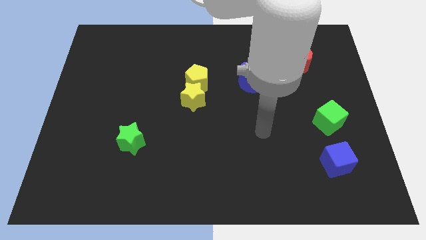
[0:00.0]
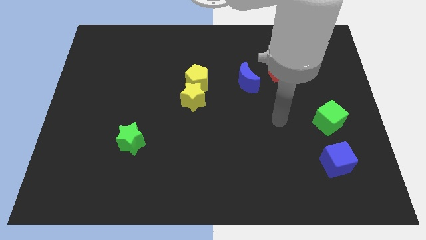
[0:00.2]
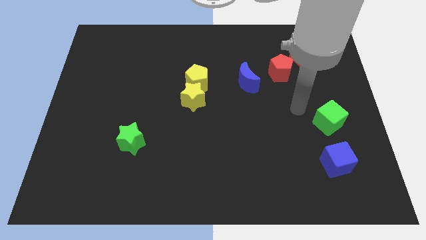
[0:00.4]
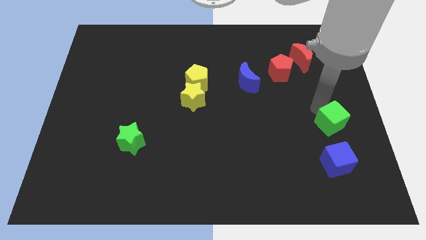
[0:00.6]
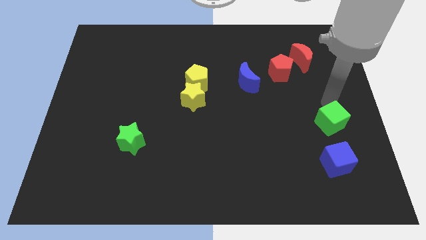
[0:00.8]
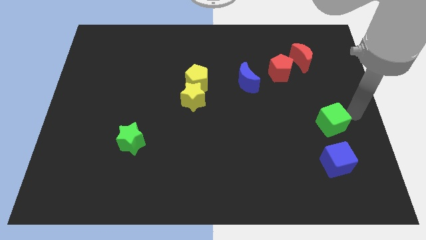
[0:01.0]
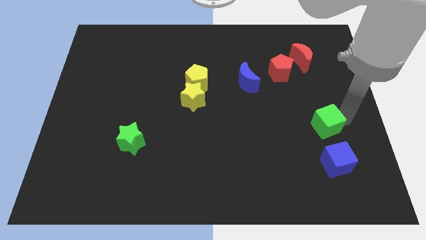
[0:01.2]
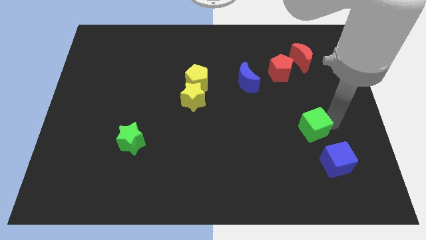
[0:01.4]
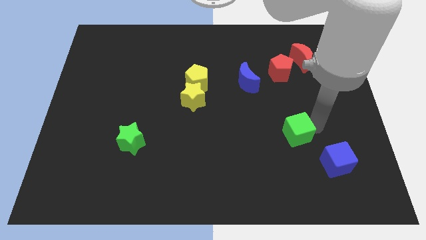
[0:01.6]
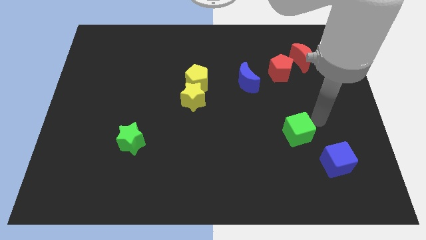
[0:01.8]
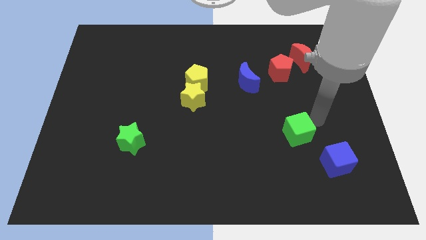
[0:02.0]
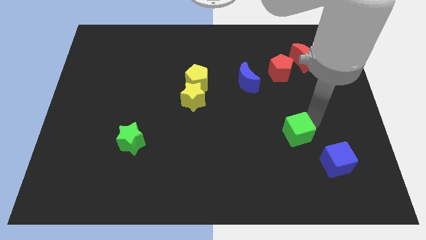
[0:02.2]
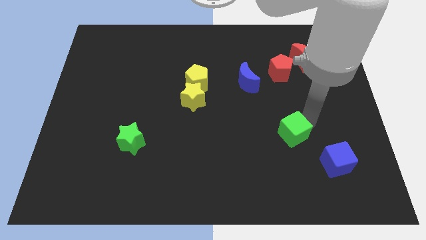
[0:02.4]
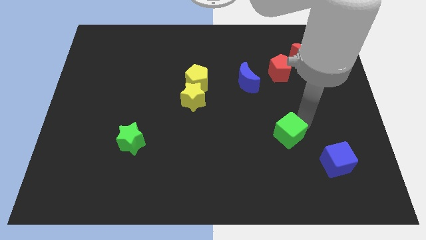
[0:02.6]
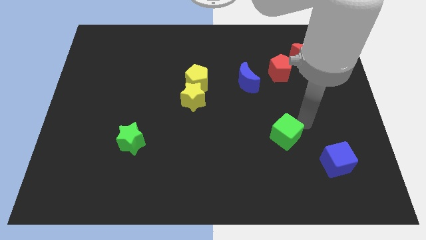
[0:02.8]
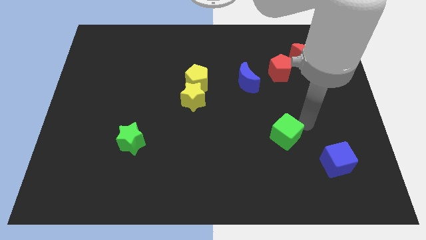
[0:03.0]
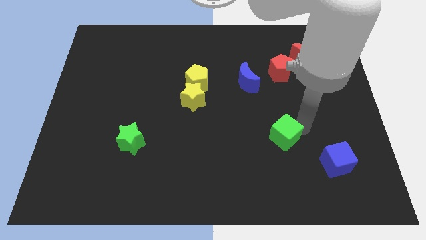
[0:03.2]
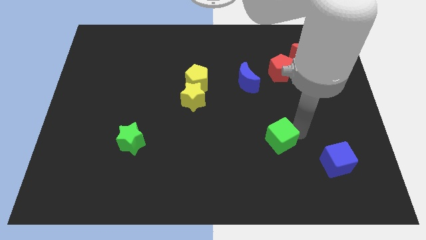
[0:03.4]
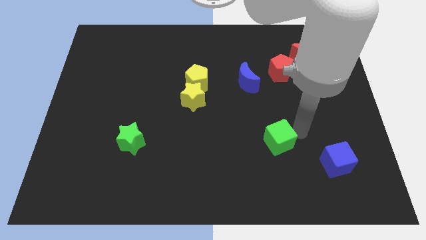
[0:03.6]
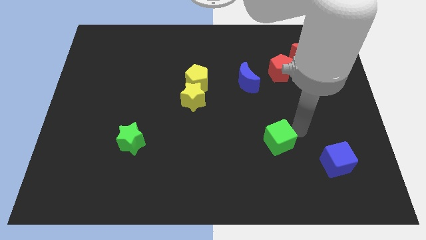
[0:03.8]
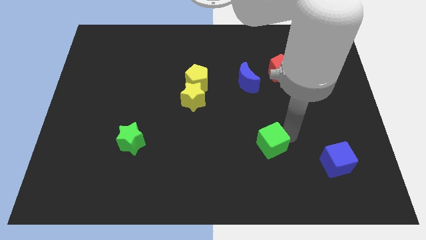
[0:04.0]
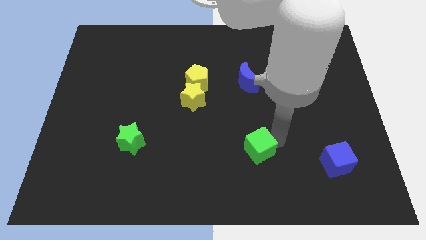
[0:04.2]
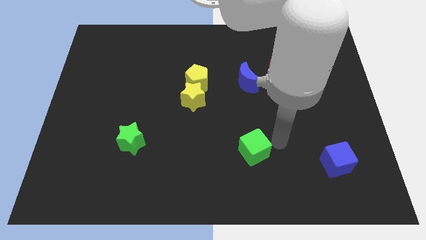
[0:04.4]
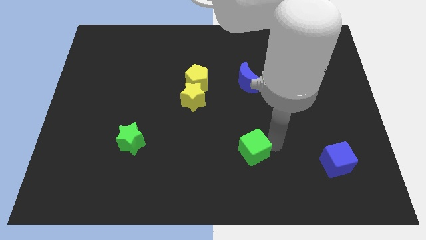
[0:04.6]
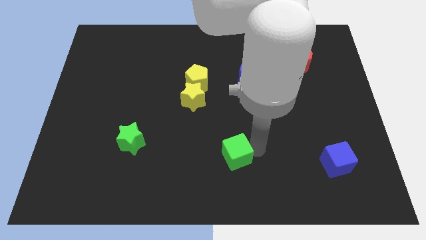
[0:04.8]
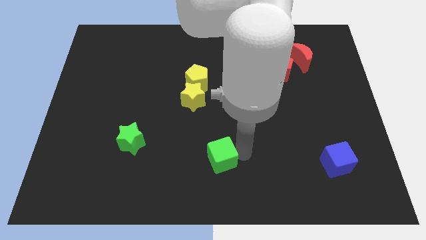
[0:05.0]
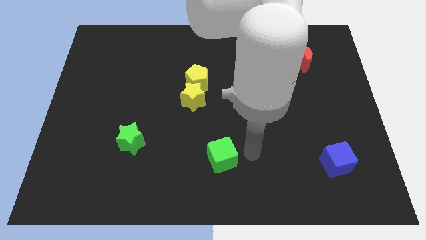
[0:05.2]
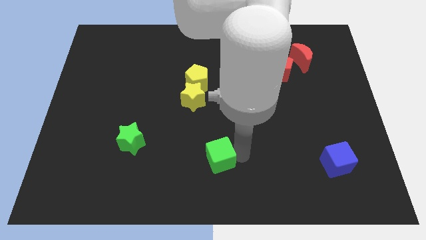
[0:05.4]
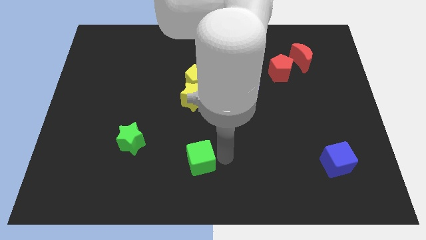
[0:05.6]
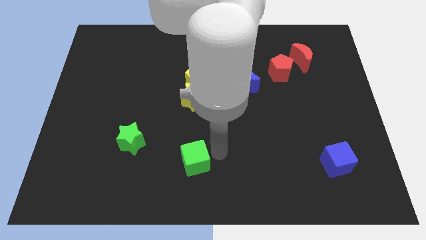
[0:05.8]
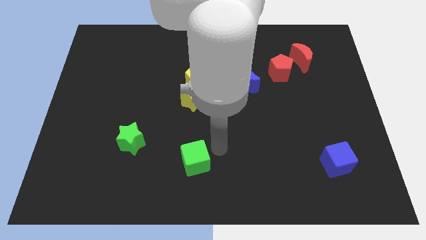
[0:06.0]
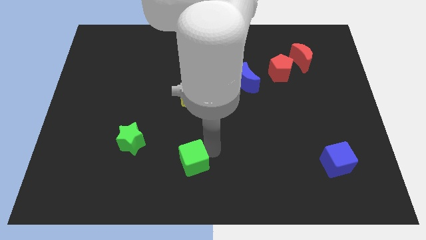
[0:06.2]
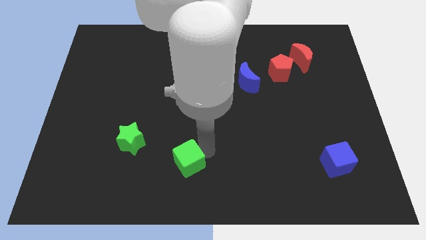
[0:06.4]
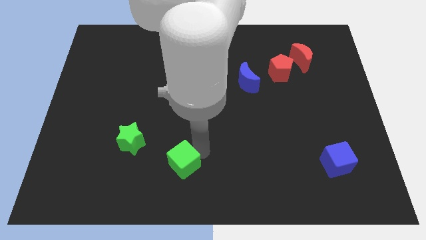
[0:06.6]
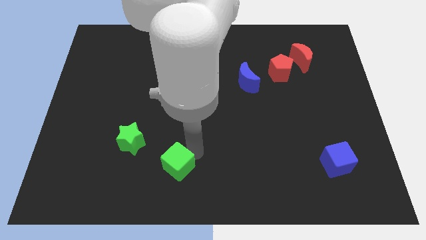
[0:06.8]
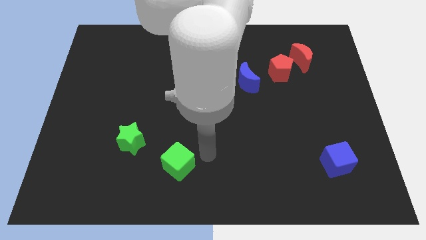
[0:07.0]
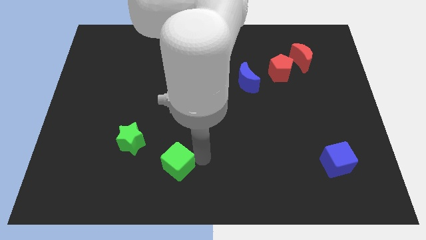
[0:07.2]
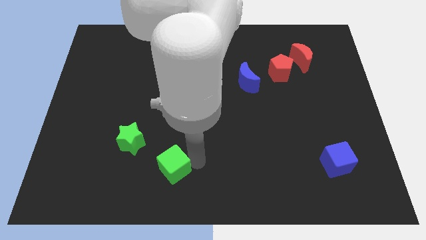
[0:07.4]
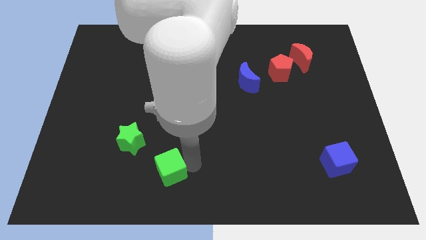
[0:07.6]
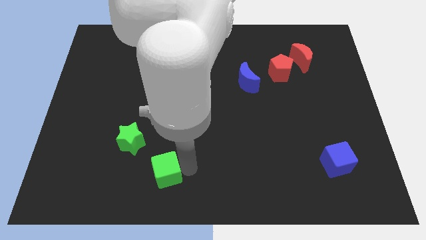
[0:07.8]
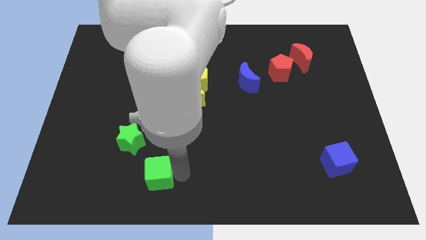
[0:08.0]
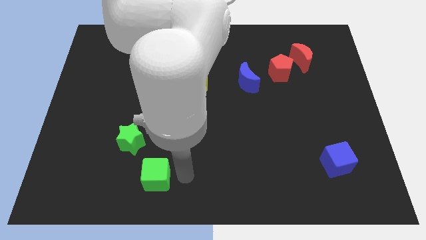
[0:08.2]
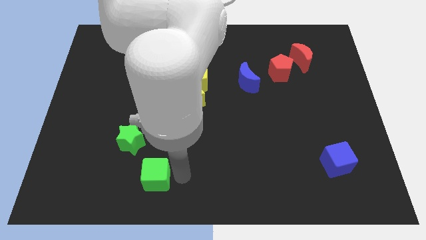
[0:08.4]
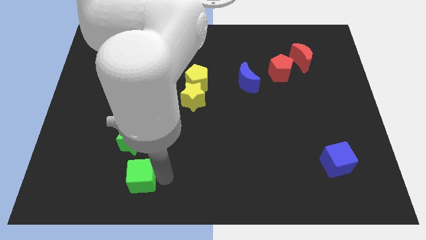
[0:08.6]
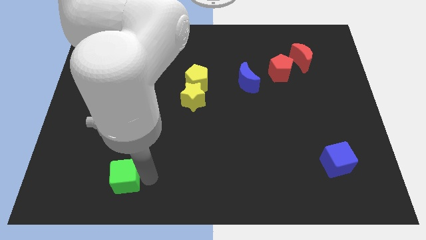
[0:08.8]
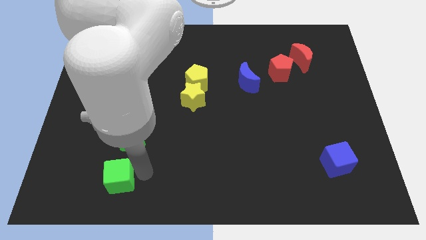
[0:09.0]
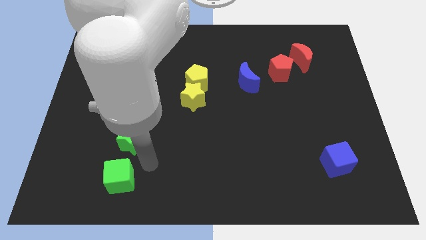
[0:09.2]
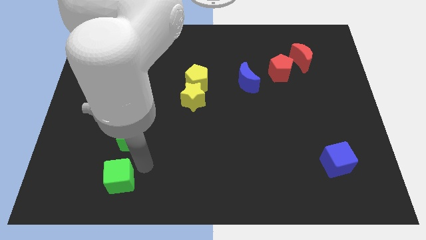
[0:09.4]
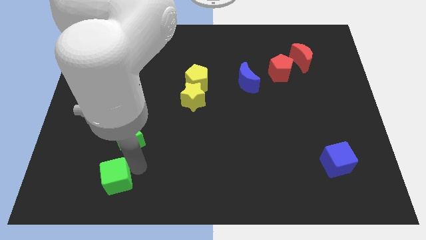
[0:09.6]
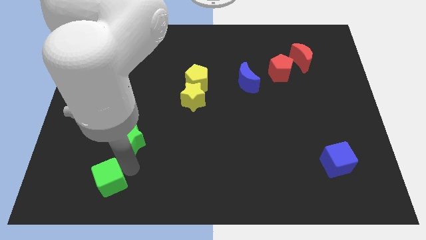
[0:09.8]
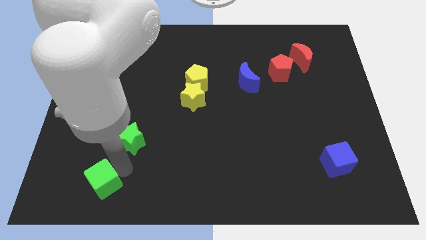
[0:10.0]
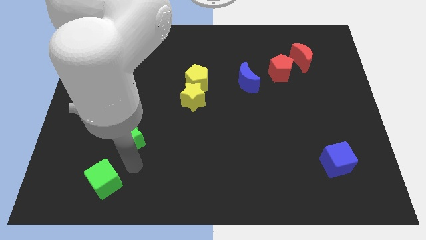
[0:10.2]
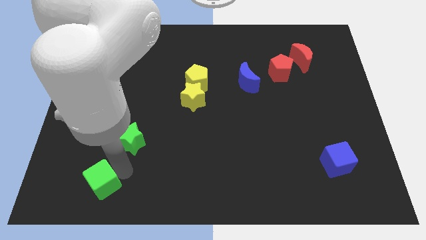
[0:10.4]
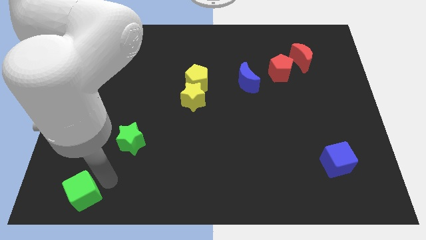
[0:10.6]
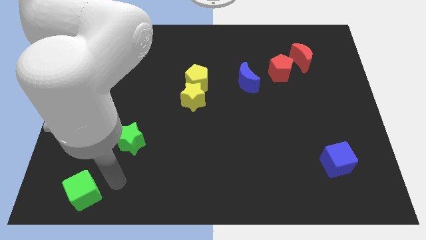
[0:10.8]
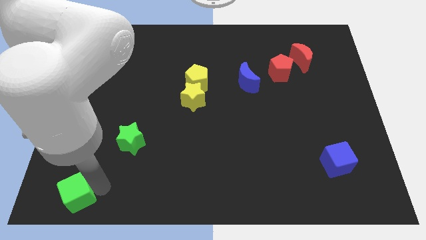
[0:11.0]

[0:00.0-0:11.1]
slide the green cube to the bottom left of the board
